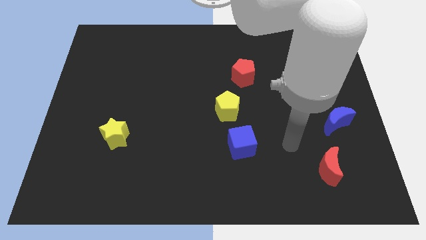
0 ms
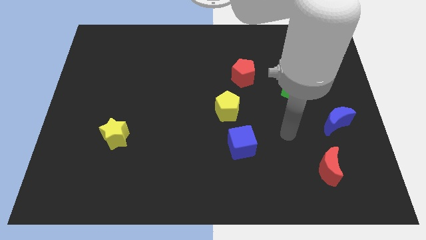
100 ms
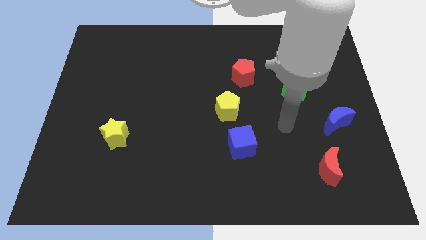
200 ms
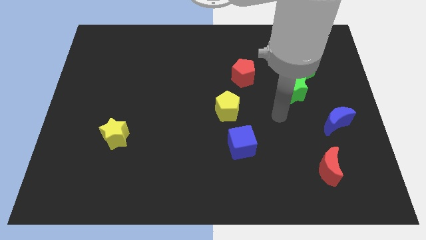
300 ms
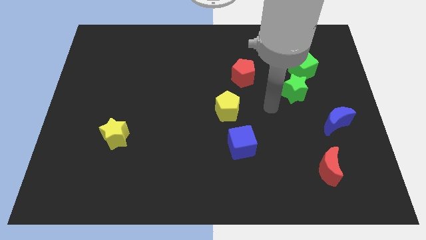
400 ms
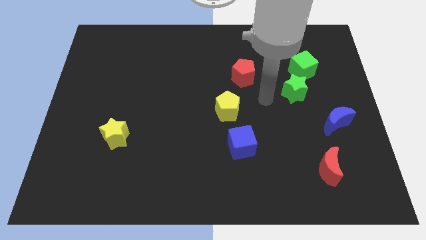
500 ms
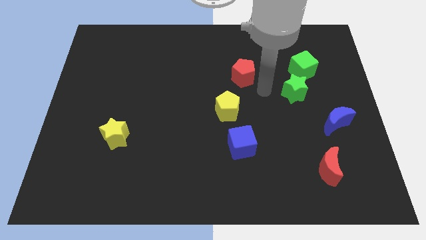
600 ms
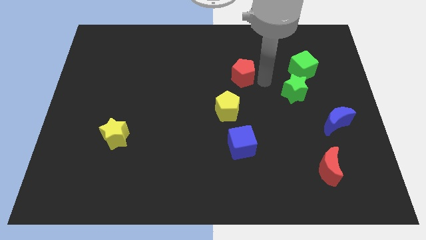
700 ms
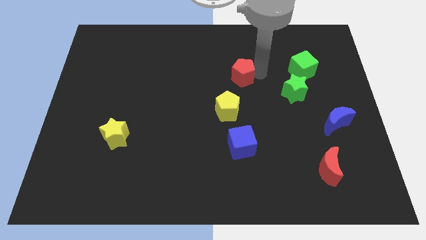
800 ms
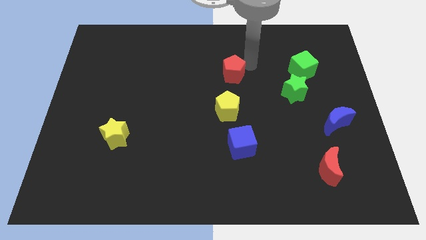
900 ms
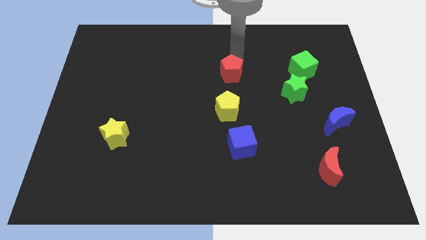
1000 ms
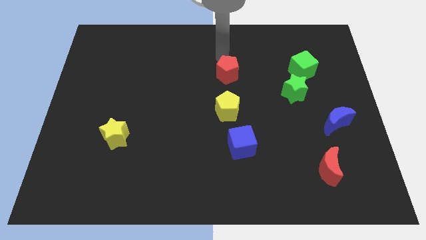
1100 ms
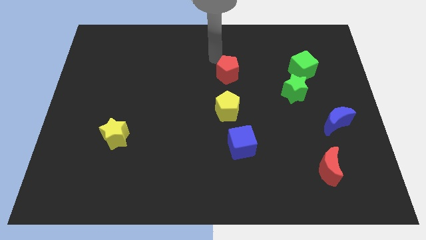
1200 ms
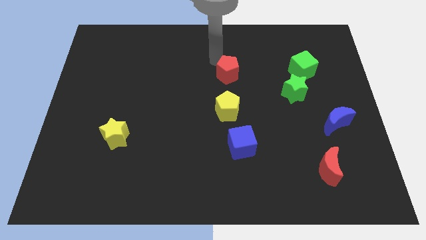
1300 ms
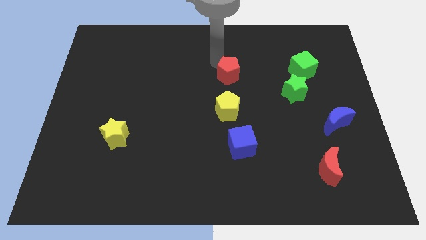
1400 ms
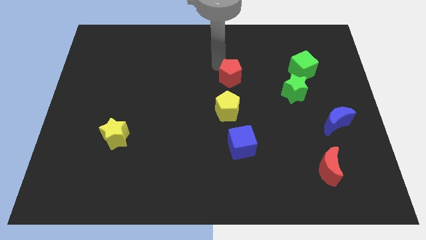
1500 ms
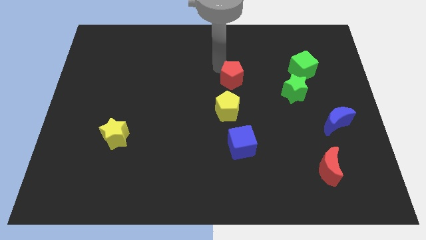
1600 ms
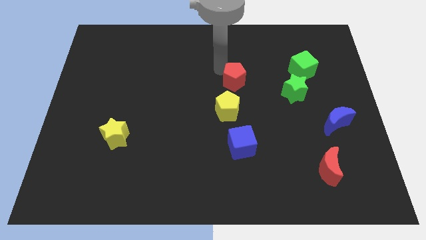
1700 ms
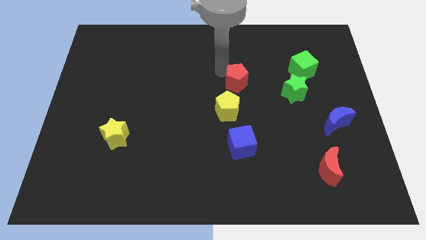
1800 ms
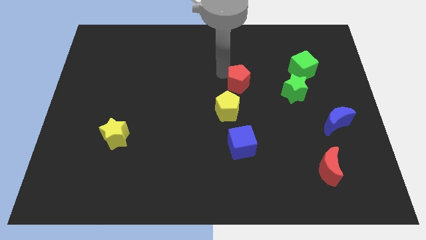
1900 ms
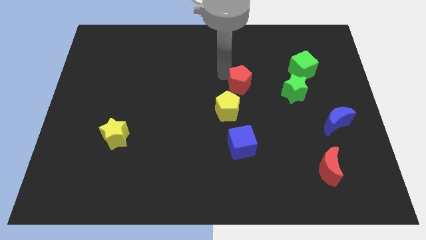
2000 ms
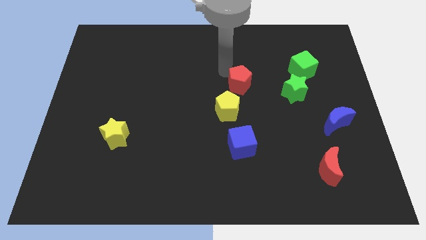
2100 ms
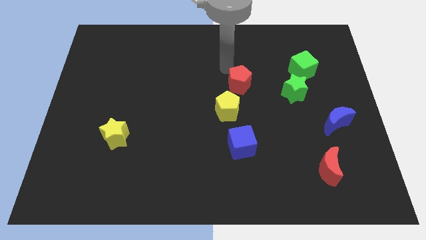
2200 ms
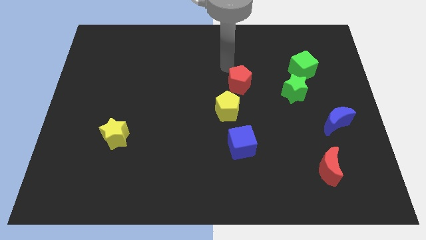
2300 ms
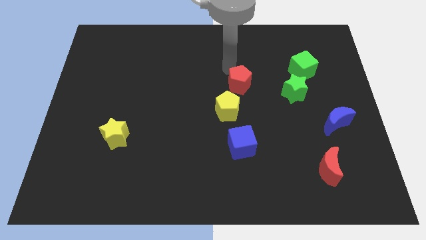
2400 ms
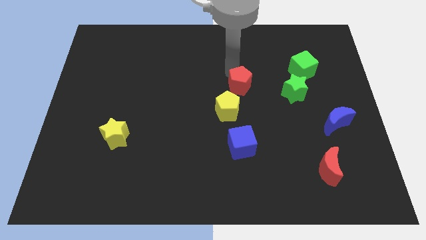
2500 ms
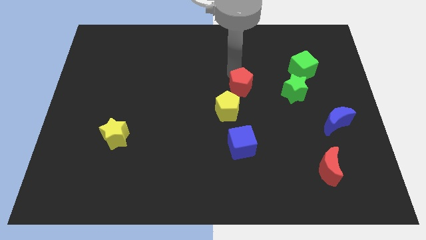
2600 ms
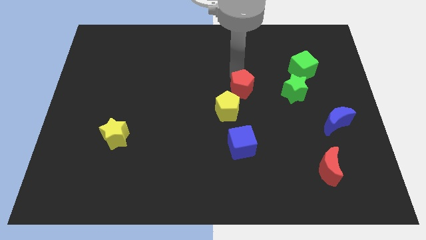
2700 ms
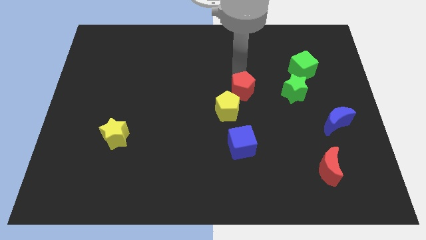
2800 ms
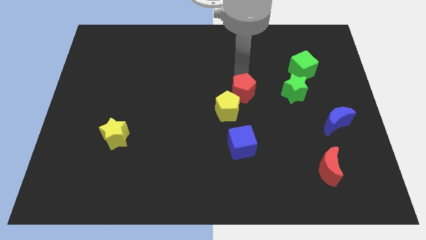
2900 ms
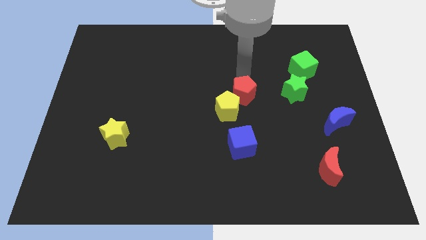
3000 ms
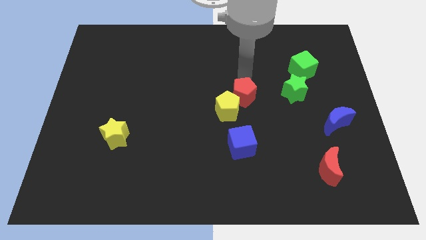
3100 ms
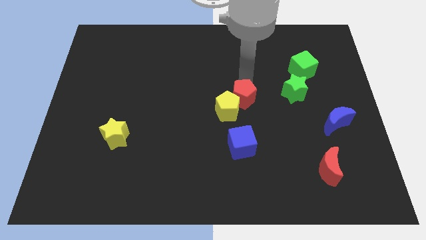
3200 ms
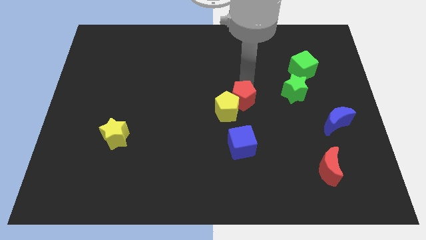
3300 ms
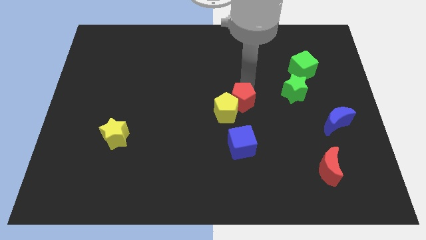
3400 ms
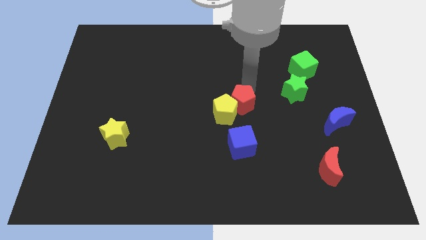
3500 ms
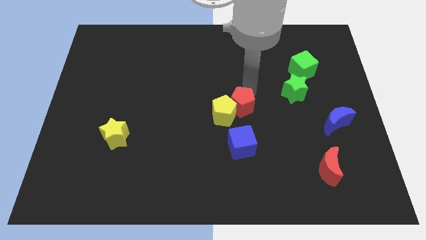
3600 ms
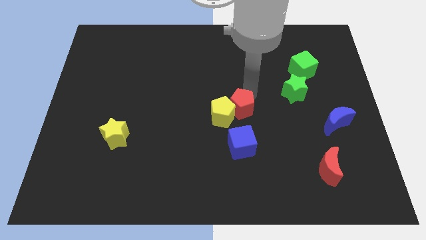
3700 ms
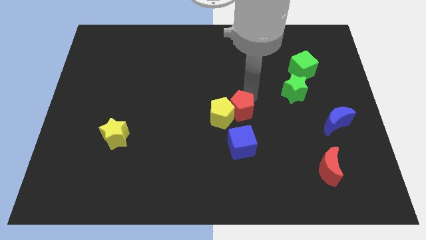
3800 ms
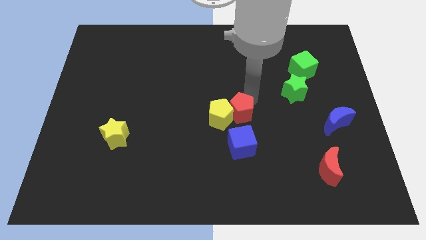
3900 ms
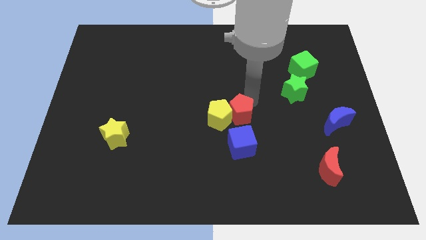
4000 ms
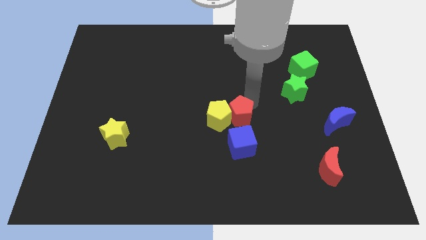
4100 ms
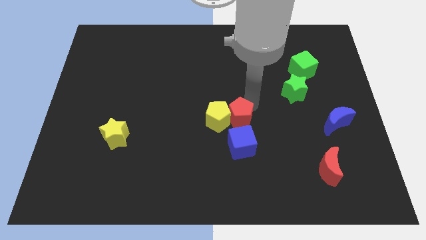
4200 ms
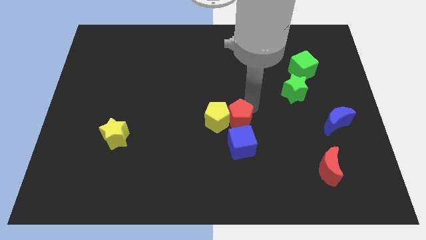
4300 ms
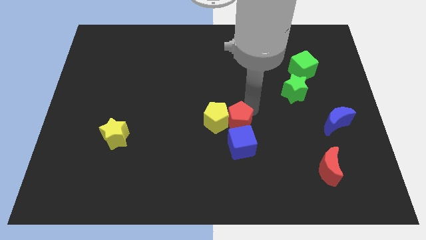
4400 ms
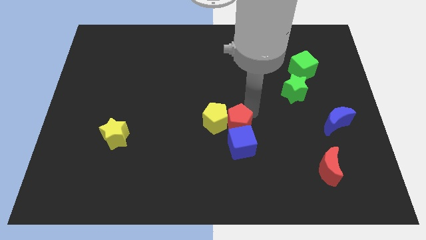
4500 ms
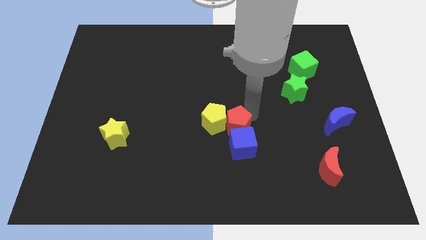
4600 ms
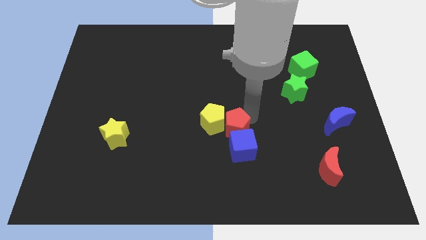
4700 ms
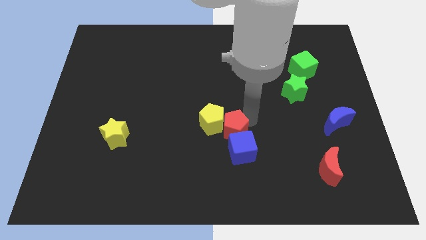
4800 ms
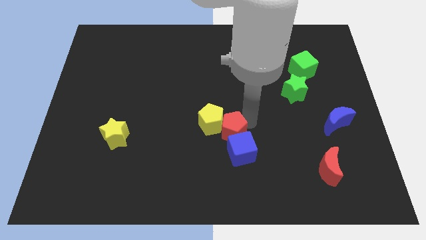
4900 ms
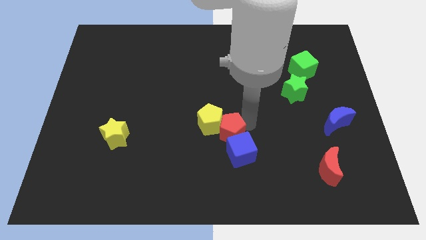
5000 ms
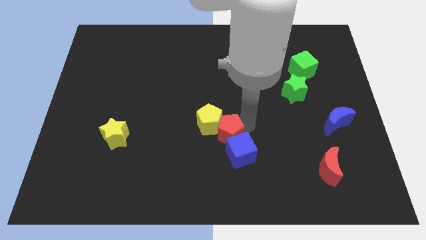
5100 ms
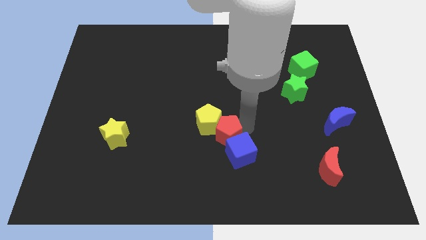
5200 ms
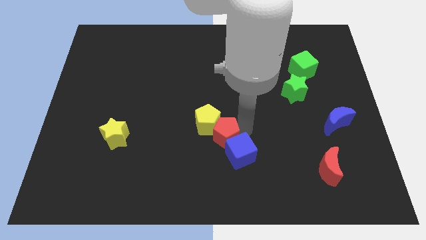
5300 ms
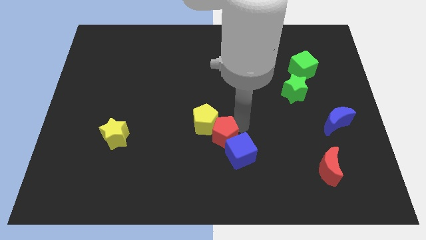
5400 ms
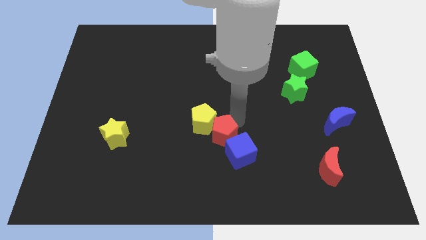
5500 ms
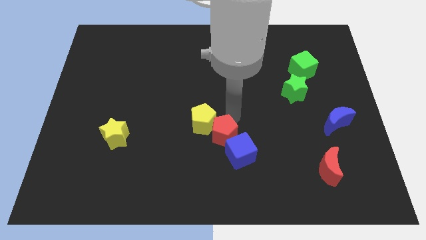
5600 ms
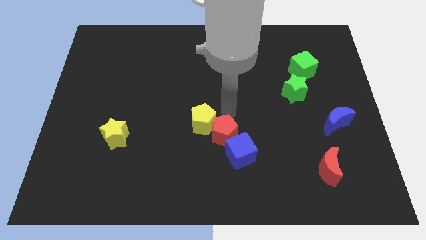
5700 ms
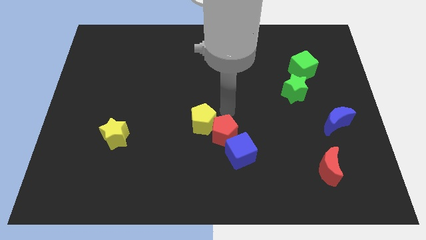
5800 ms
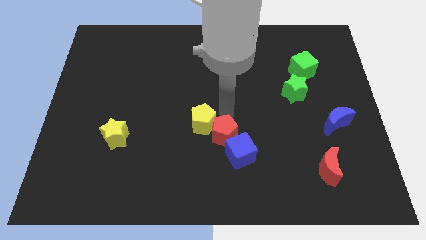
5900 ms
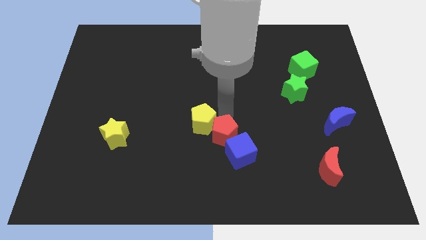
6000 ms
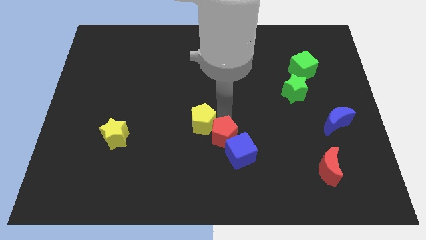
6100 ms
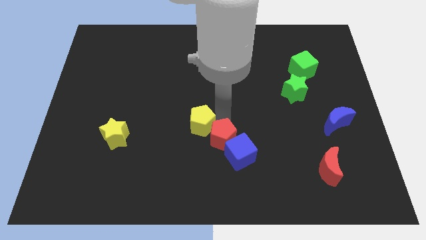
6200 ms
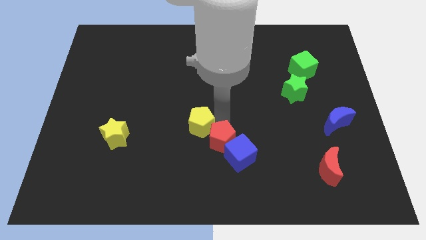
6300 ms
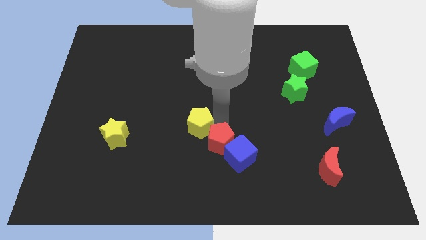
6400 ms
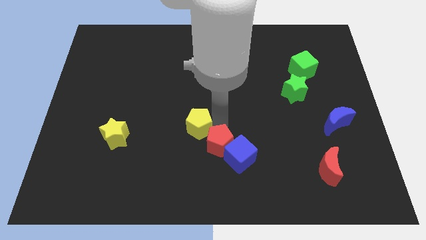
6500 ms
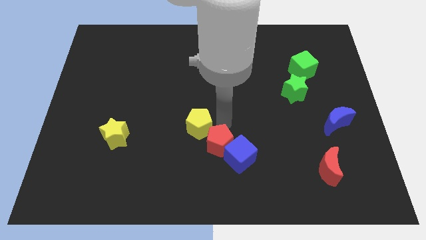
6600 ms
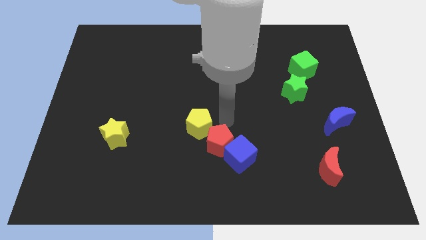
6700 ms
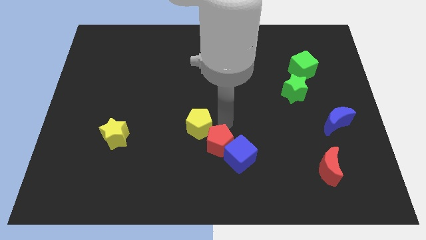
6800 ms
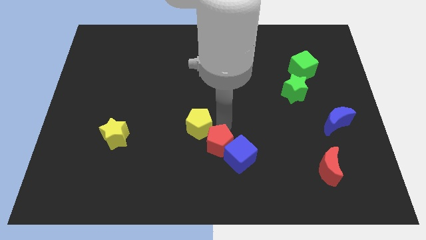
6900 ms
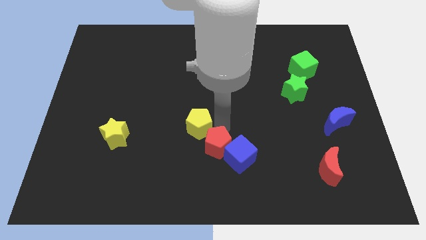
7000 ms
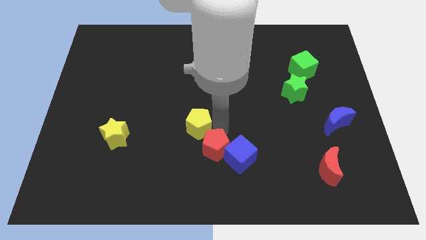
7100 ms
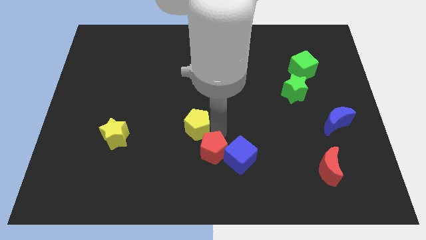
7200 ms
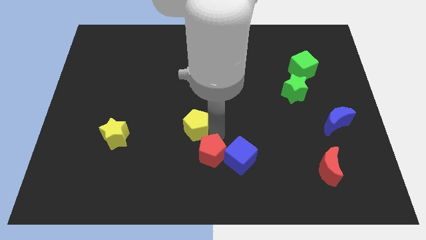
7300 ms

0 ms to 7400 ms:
push the red pentagon to the bottom

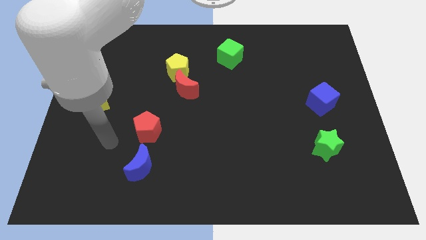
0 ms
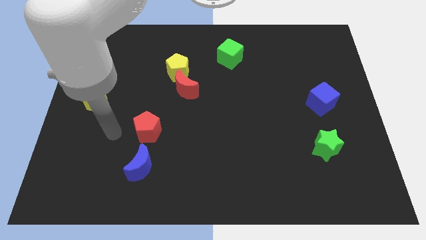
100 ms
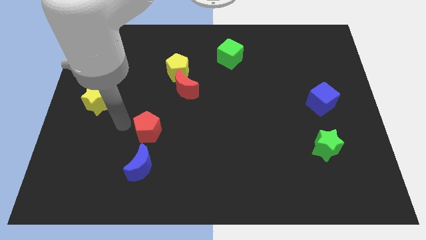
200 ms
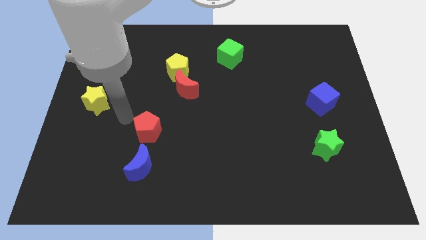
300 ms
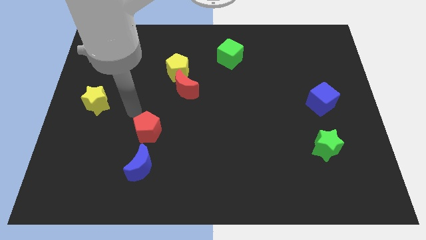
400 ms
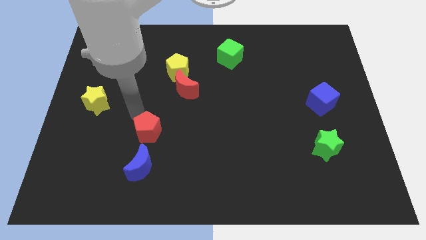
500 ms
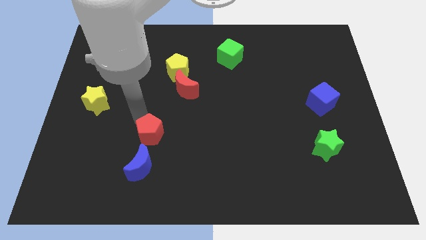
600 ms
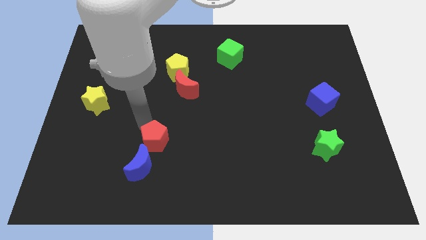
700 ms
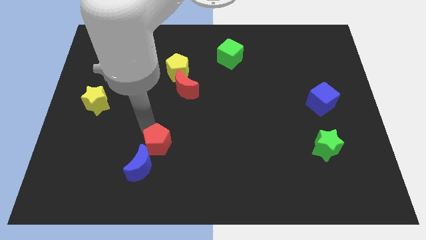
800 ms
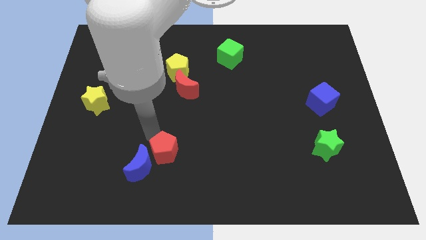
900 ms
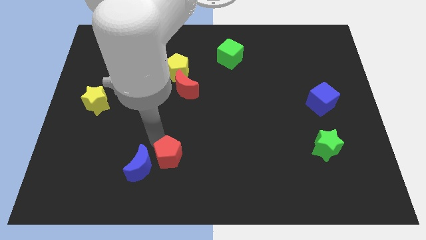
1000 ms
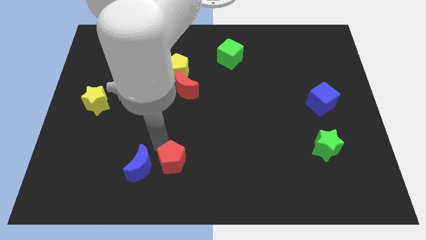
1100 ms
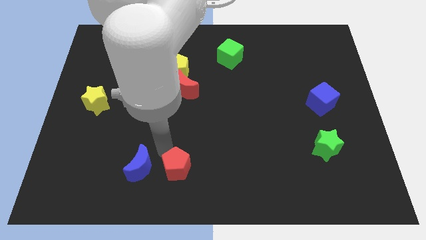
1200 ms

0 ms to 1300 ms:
move the red pentagon to the bottom
